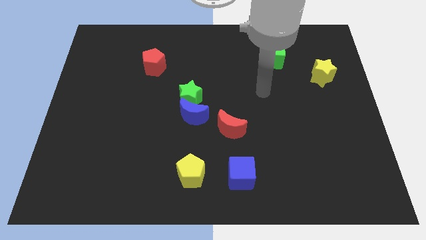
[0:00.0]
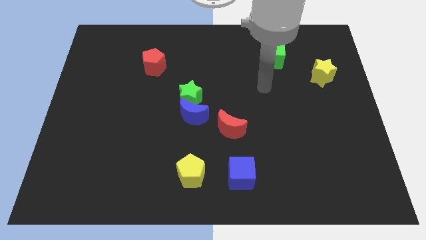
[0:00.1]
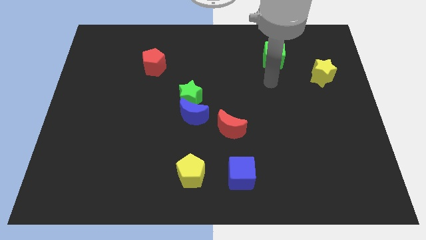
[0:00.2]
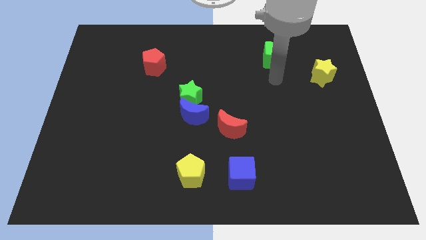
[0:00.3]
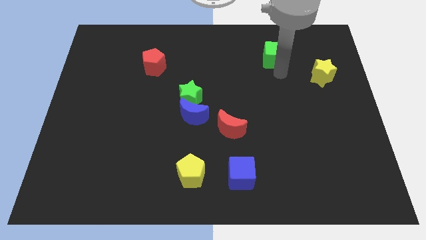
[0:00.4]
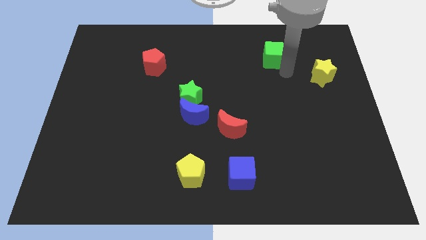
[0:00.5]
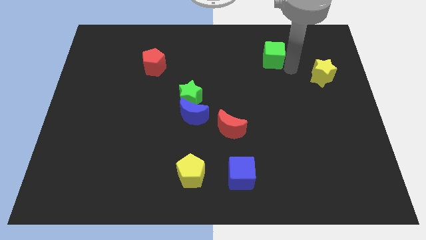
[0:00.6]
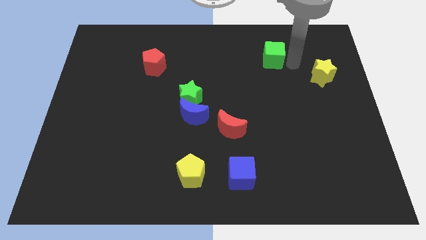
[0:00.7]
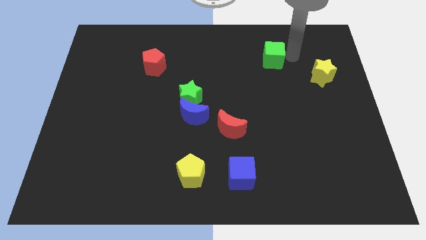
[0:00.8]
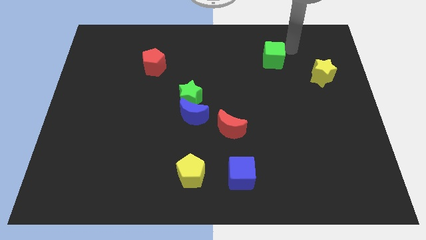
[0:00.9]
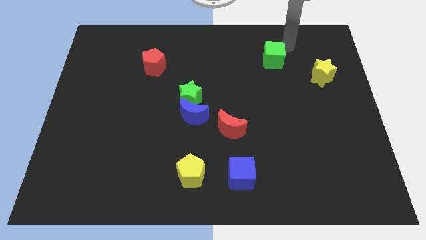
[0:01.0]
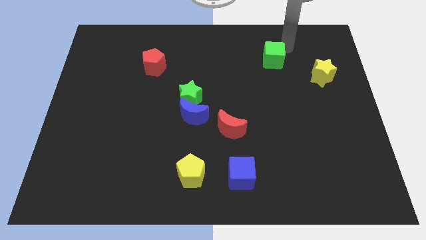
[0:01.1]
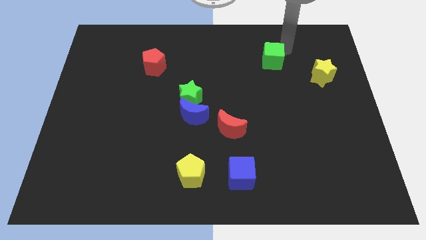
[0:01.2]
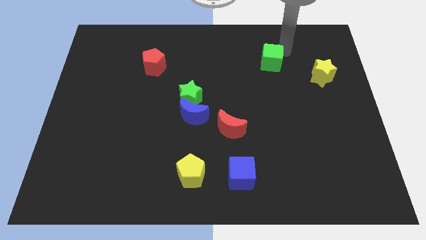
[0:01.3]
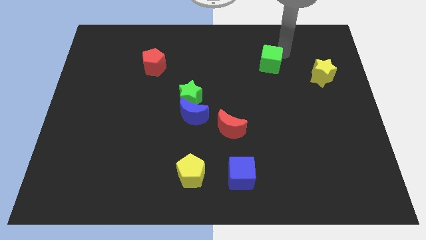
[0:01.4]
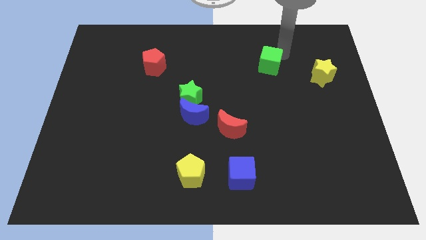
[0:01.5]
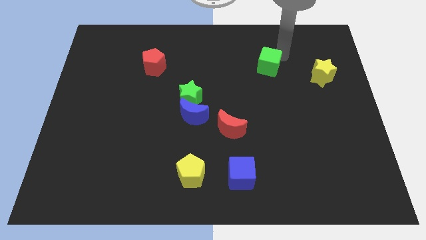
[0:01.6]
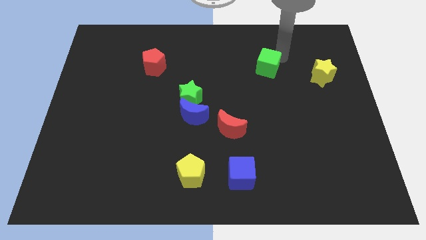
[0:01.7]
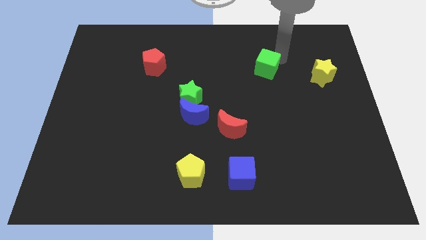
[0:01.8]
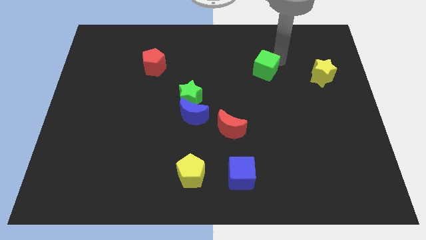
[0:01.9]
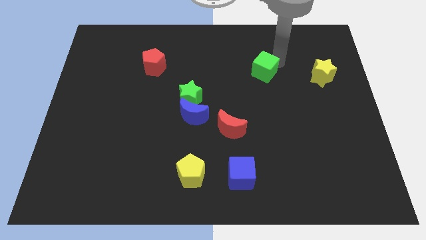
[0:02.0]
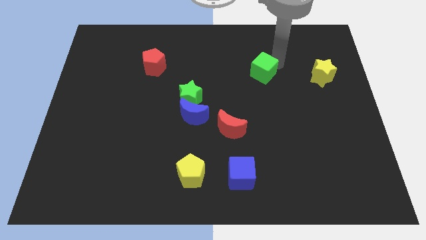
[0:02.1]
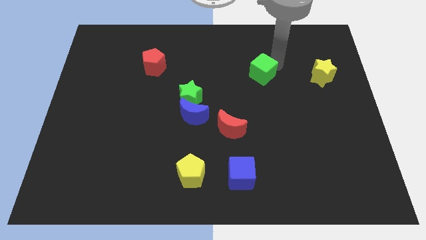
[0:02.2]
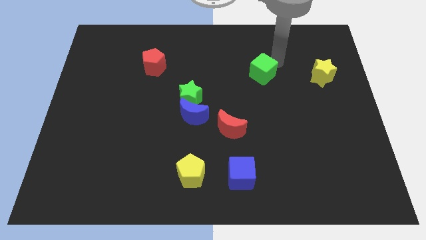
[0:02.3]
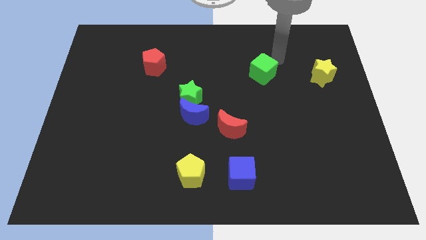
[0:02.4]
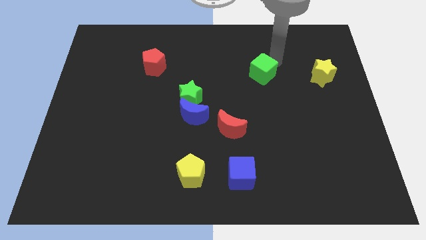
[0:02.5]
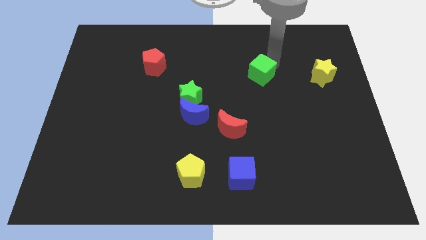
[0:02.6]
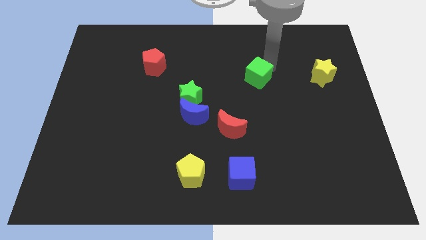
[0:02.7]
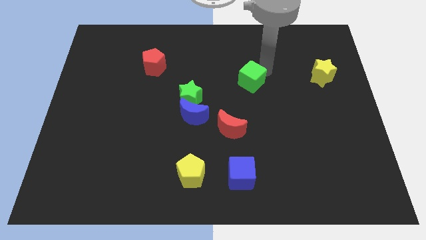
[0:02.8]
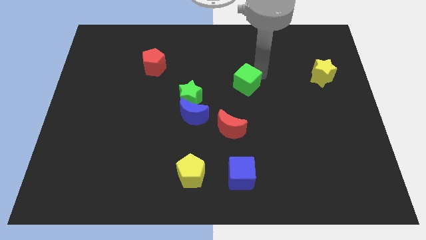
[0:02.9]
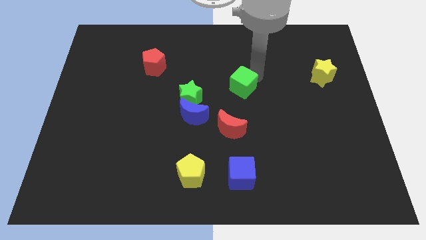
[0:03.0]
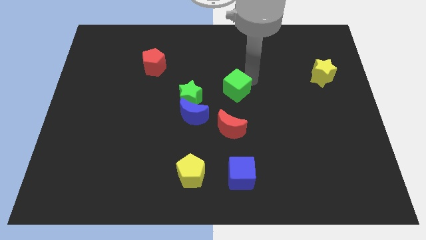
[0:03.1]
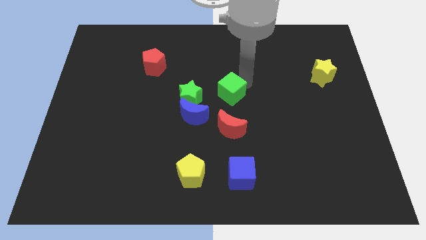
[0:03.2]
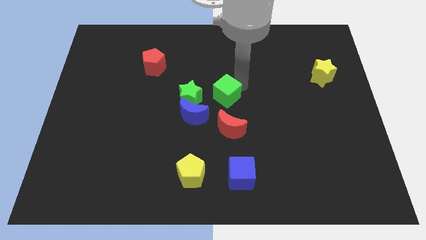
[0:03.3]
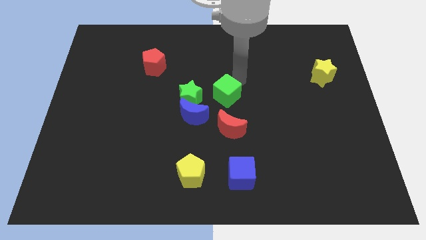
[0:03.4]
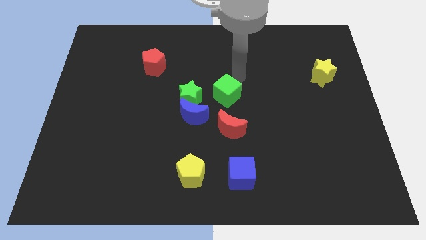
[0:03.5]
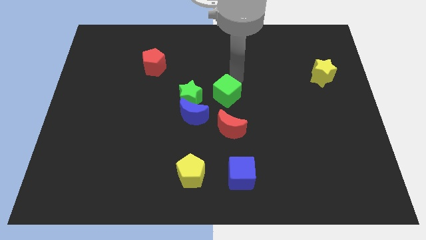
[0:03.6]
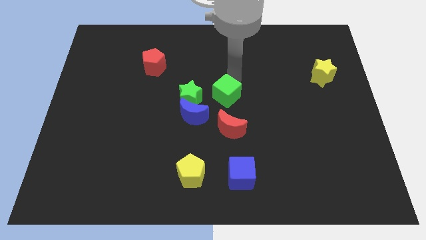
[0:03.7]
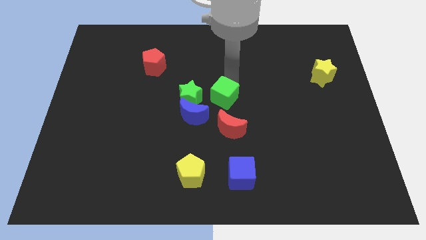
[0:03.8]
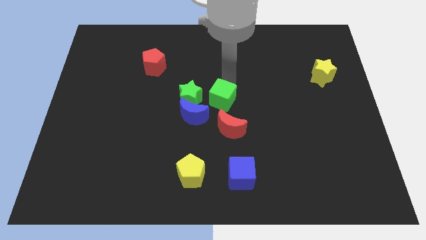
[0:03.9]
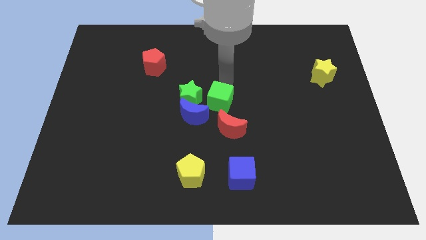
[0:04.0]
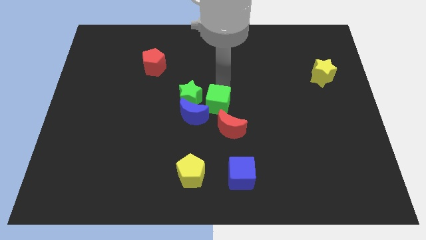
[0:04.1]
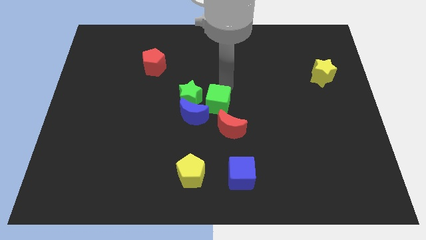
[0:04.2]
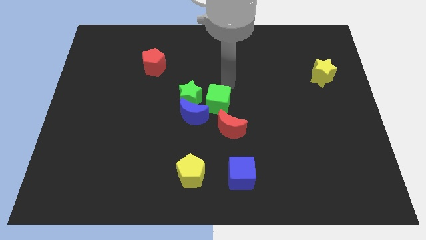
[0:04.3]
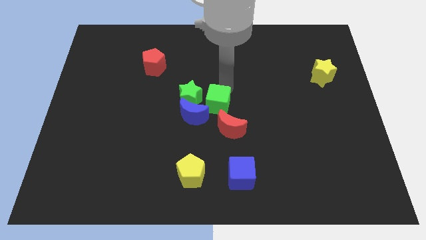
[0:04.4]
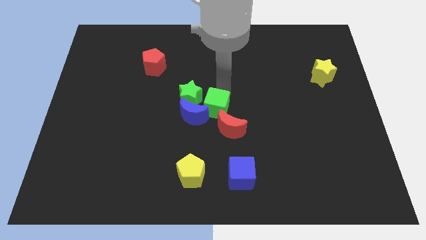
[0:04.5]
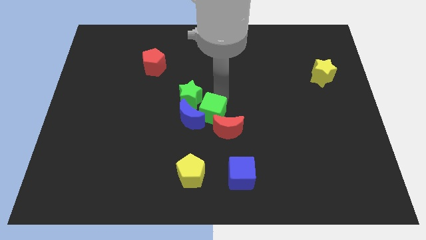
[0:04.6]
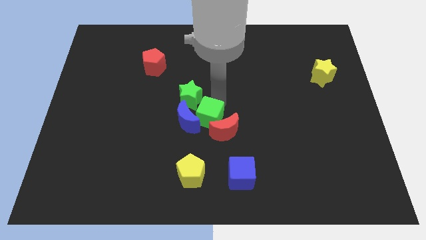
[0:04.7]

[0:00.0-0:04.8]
move the green cube below the green star

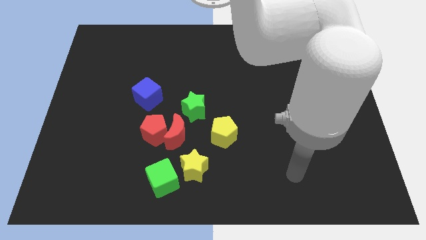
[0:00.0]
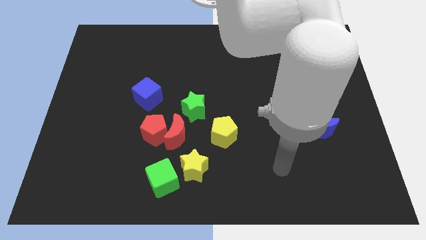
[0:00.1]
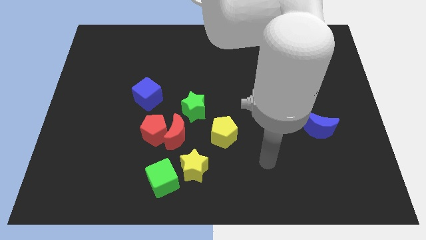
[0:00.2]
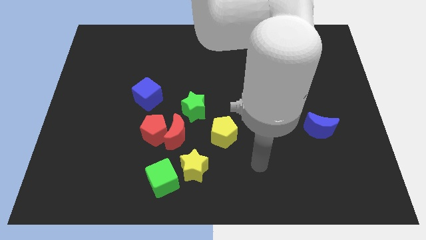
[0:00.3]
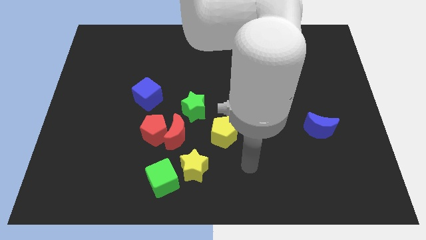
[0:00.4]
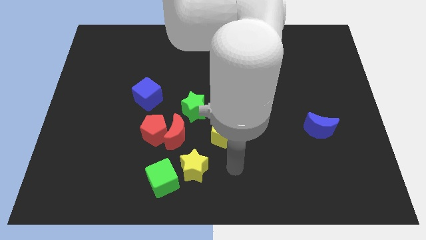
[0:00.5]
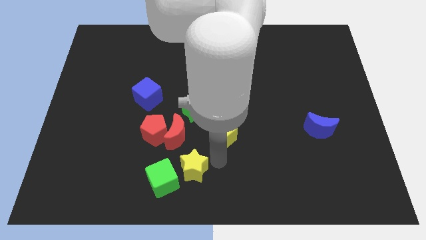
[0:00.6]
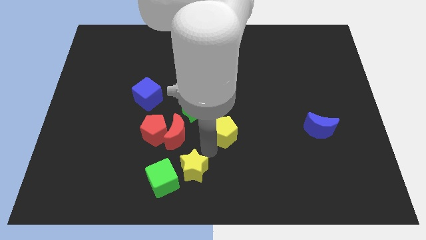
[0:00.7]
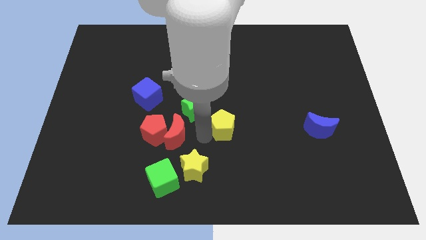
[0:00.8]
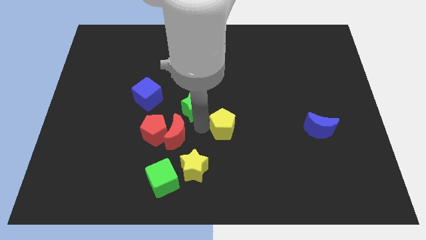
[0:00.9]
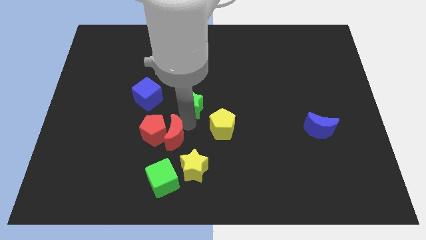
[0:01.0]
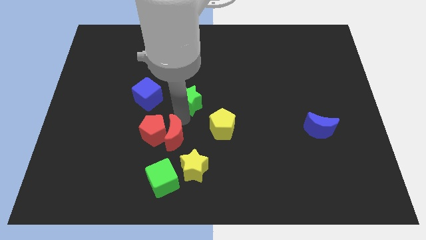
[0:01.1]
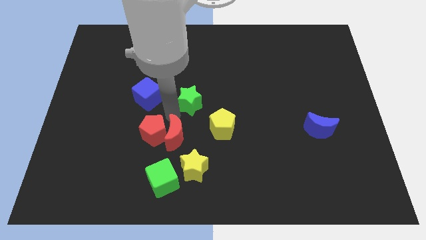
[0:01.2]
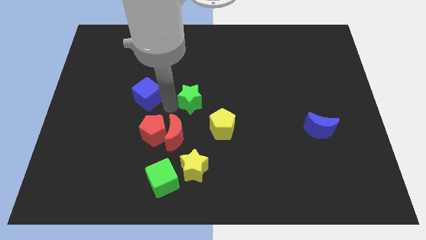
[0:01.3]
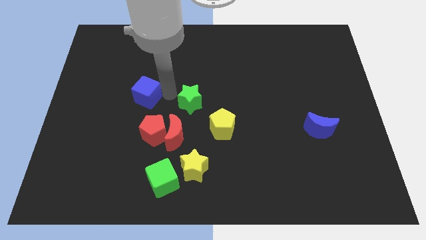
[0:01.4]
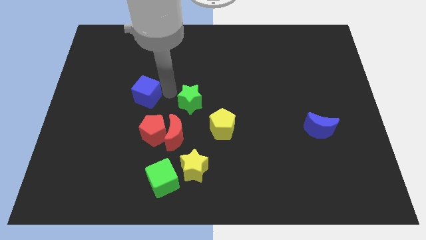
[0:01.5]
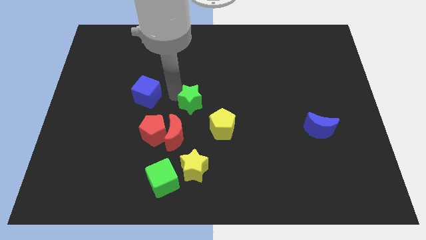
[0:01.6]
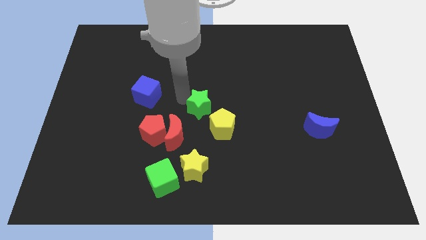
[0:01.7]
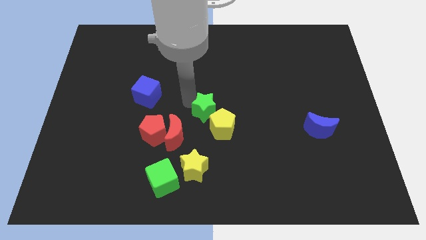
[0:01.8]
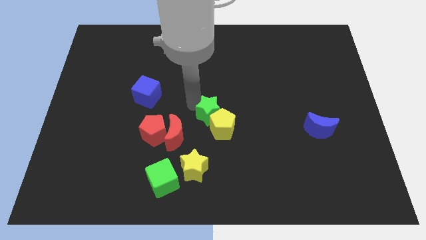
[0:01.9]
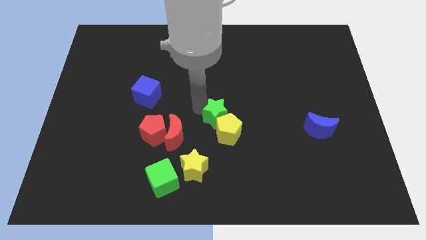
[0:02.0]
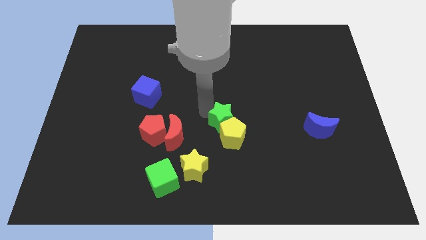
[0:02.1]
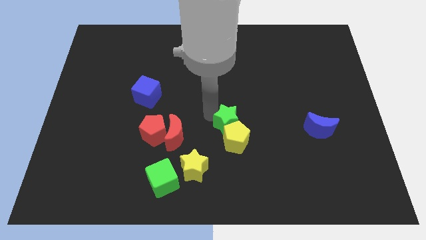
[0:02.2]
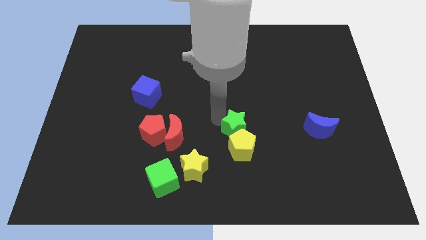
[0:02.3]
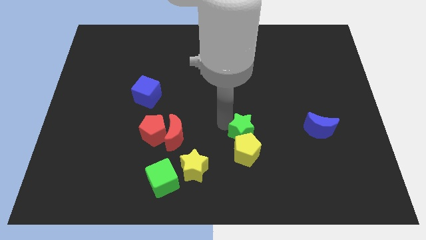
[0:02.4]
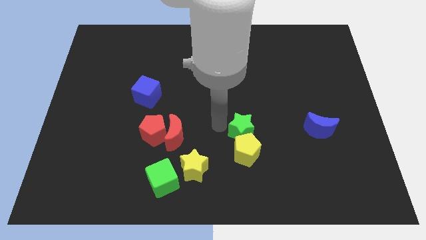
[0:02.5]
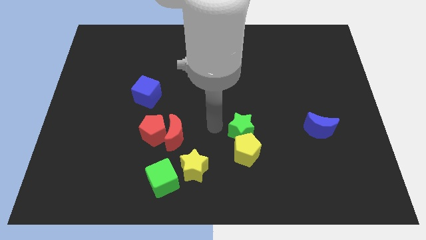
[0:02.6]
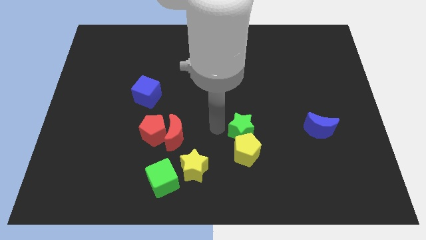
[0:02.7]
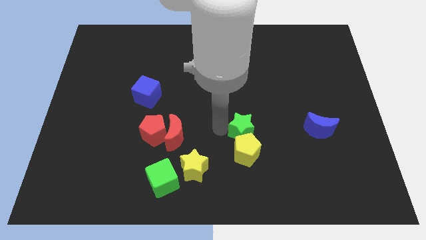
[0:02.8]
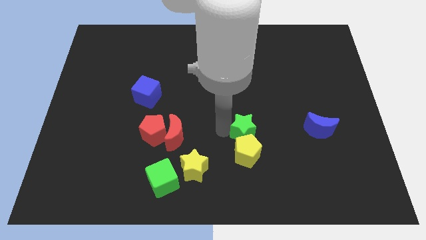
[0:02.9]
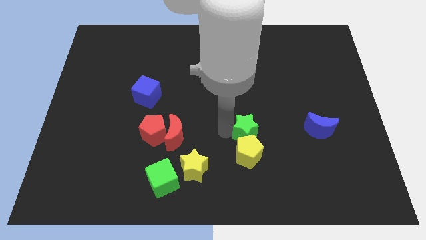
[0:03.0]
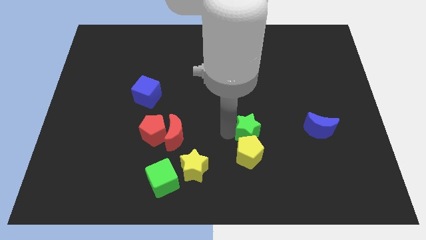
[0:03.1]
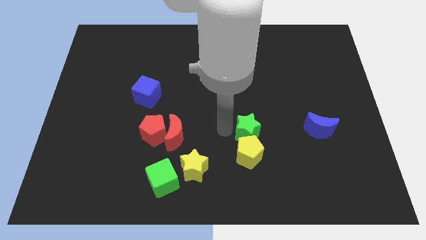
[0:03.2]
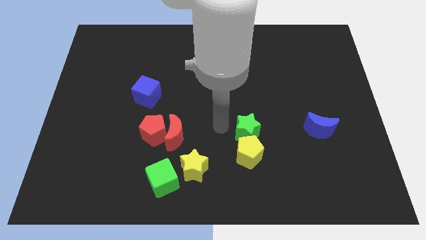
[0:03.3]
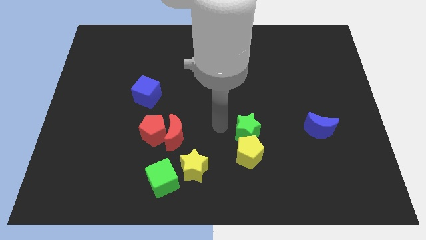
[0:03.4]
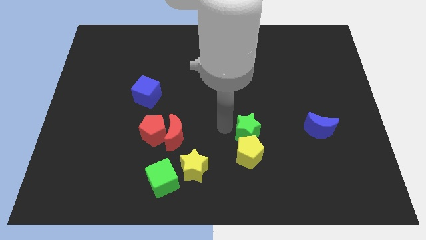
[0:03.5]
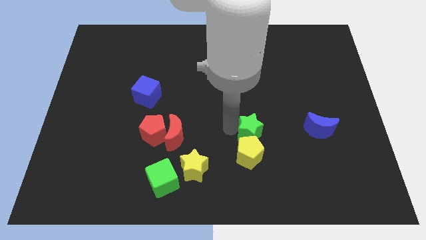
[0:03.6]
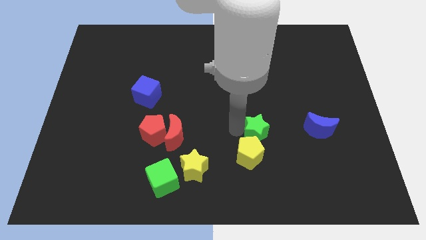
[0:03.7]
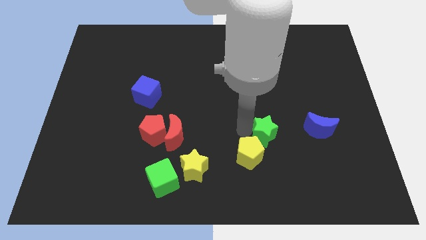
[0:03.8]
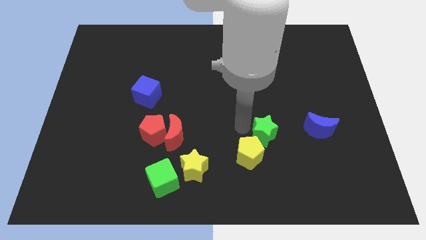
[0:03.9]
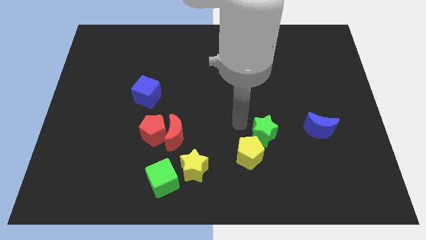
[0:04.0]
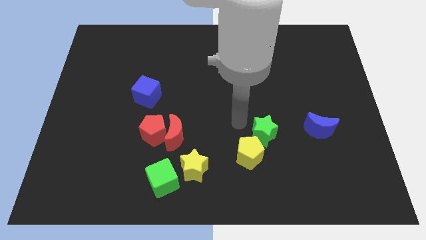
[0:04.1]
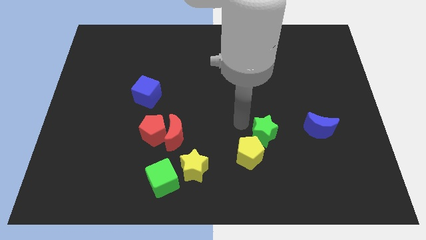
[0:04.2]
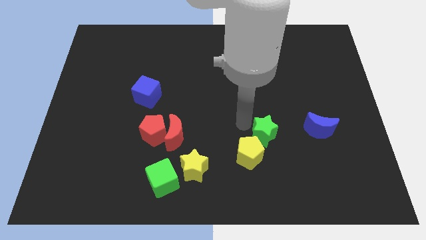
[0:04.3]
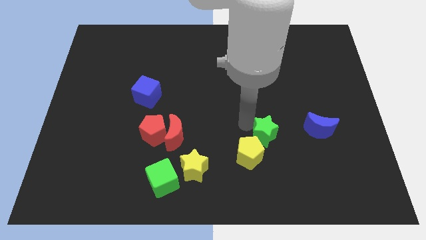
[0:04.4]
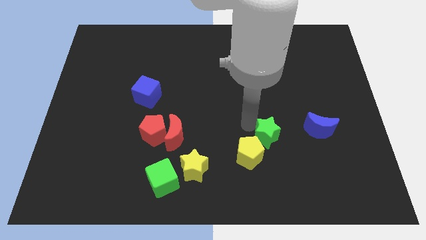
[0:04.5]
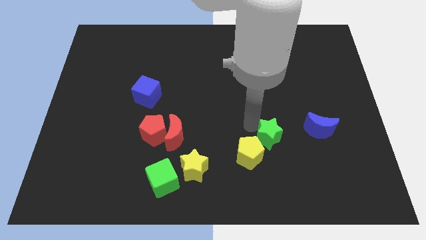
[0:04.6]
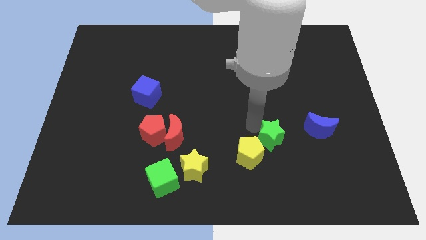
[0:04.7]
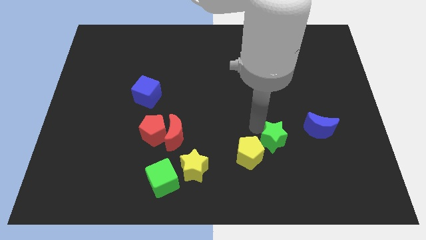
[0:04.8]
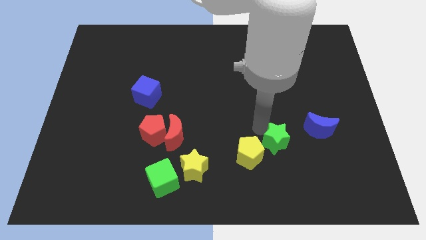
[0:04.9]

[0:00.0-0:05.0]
slide the green star to the bottom left side of the blue moon
